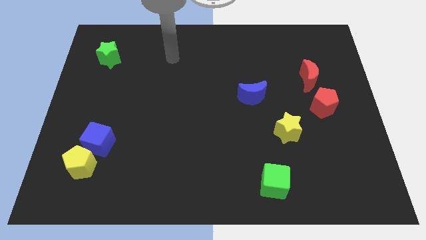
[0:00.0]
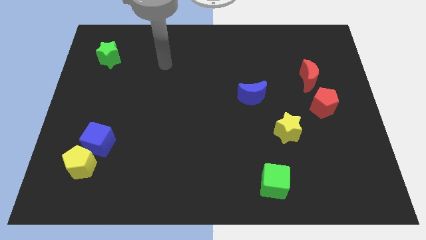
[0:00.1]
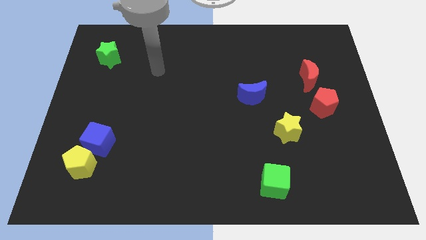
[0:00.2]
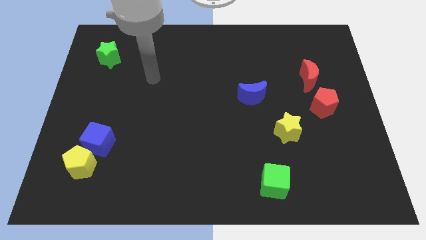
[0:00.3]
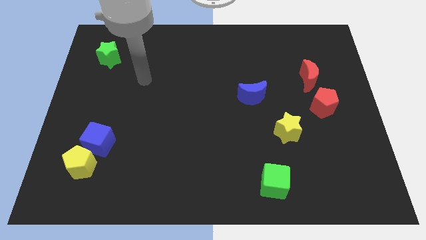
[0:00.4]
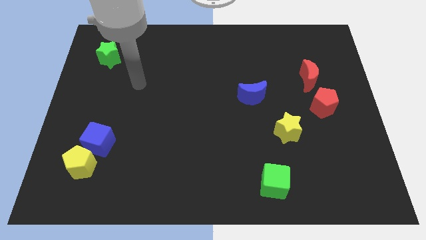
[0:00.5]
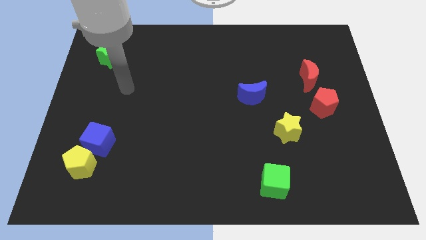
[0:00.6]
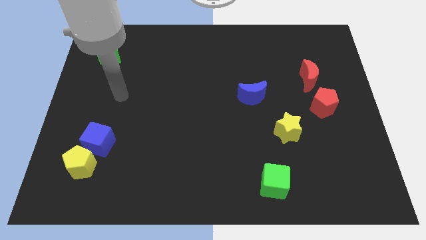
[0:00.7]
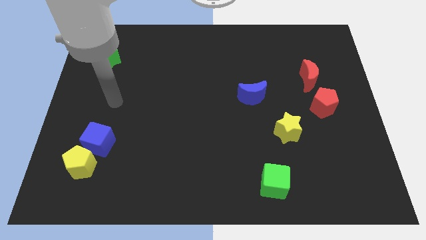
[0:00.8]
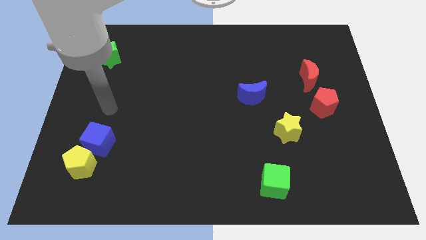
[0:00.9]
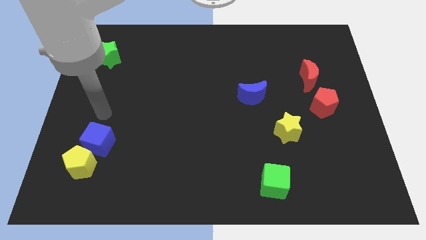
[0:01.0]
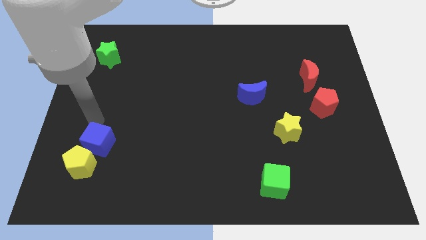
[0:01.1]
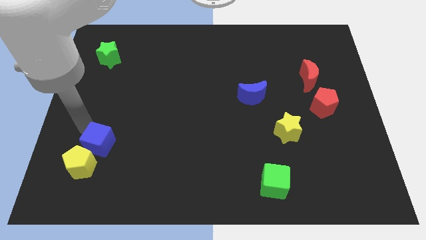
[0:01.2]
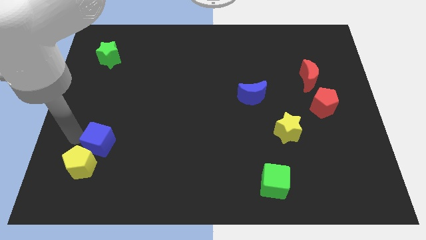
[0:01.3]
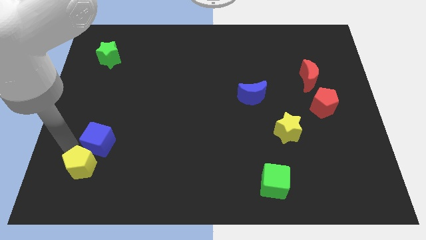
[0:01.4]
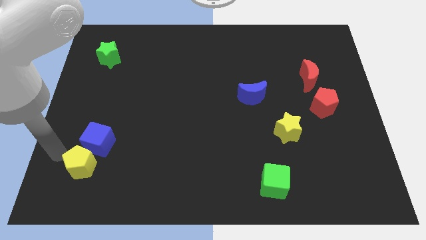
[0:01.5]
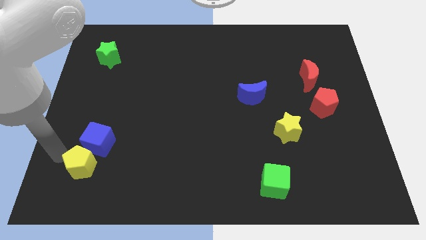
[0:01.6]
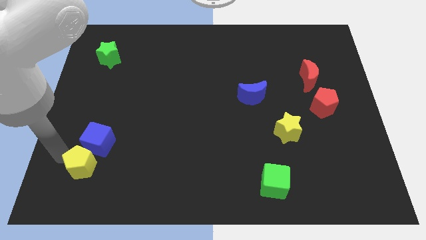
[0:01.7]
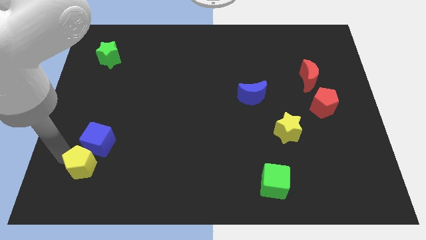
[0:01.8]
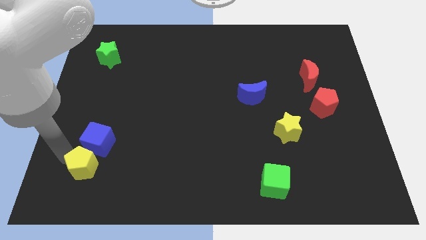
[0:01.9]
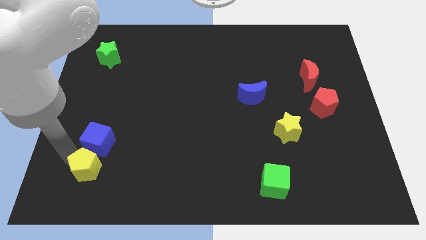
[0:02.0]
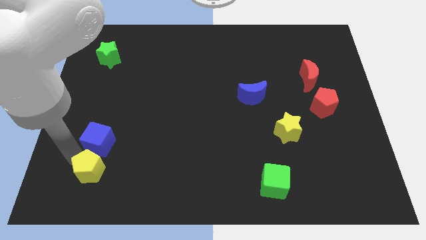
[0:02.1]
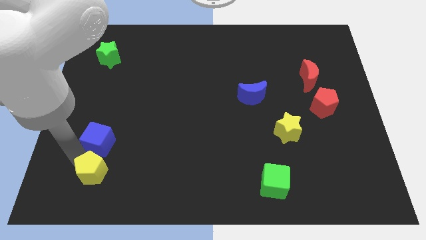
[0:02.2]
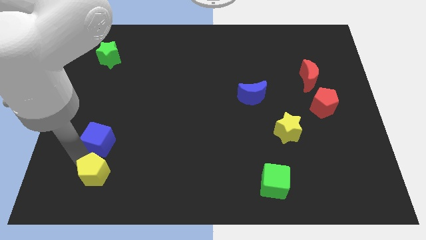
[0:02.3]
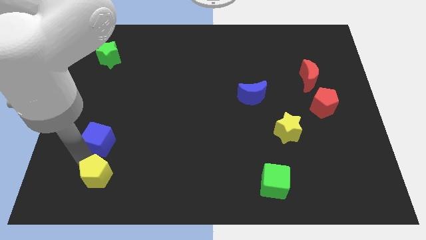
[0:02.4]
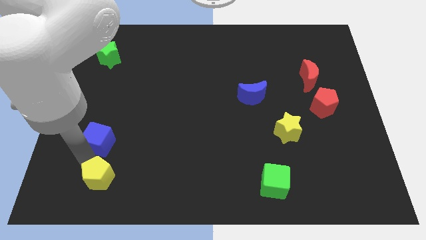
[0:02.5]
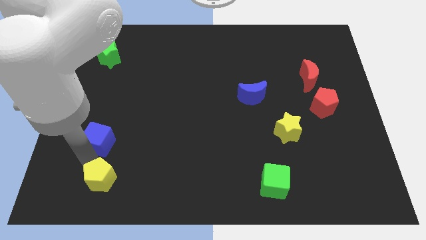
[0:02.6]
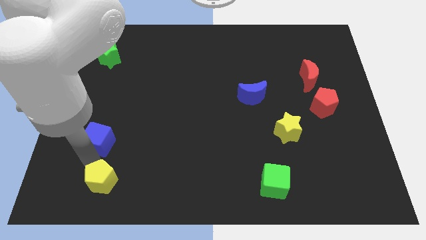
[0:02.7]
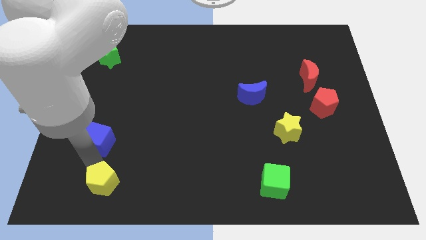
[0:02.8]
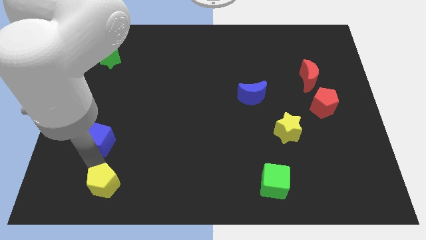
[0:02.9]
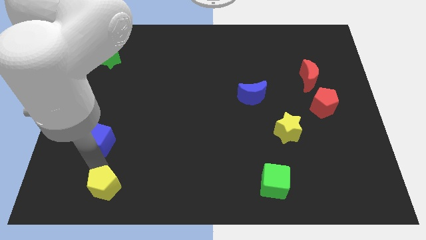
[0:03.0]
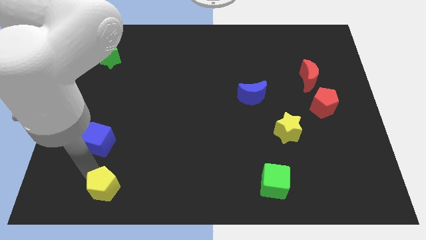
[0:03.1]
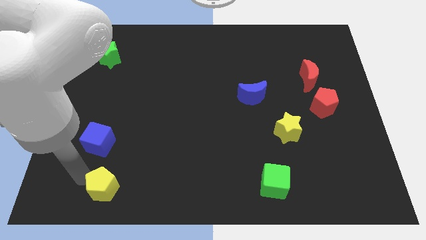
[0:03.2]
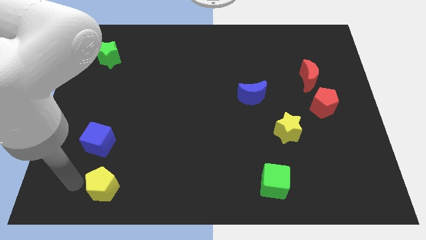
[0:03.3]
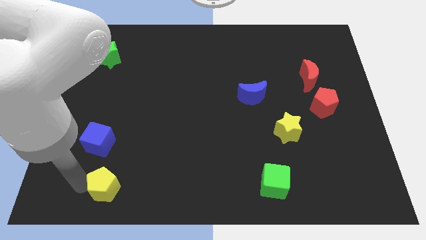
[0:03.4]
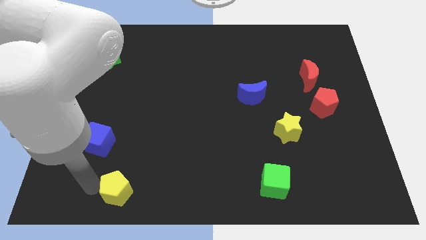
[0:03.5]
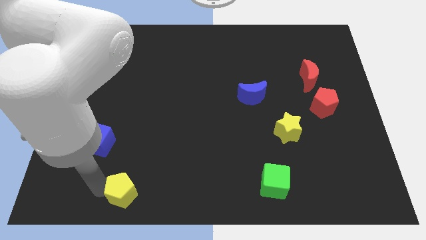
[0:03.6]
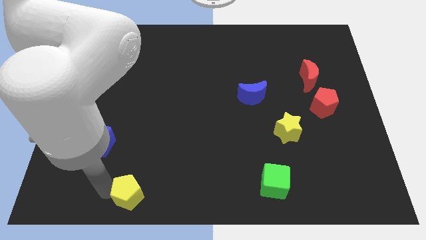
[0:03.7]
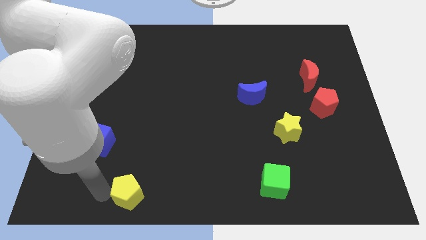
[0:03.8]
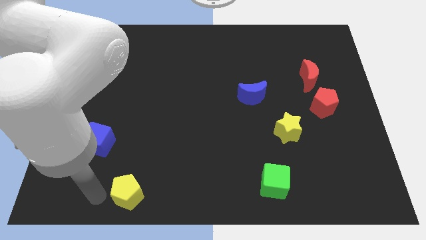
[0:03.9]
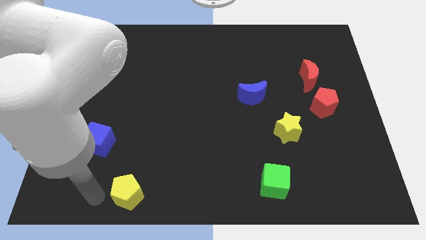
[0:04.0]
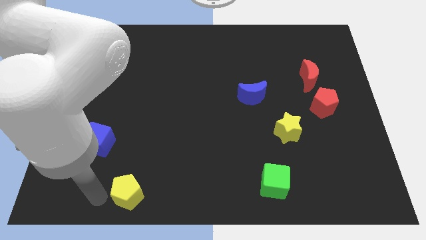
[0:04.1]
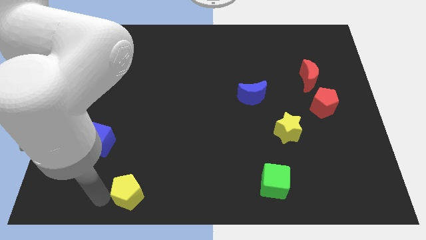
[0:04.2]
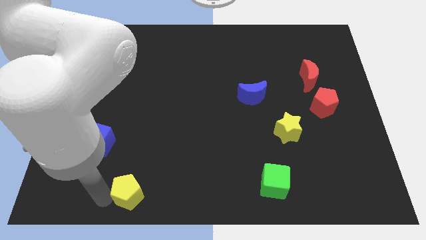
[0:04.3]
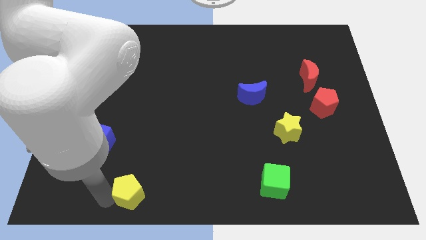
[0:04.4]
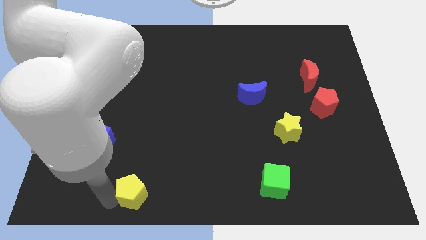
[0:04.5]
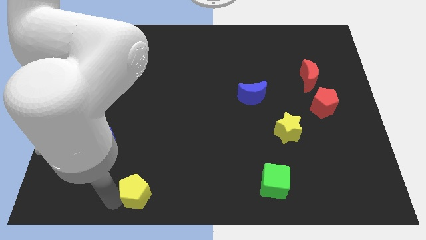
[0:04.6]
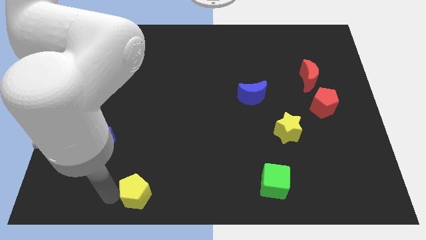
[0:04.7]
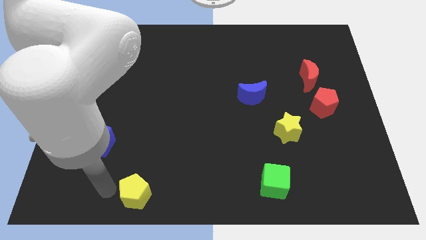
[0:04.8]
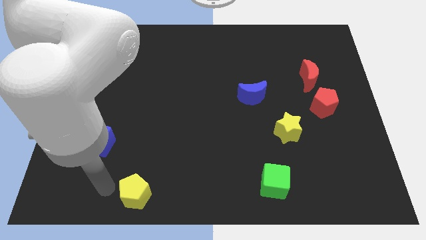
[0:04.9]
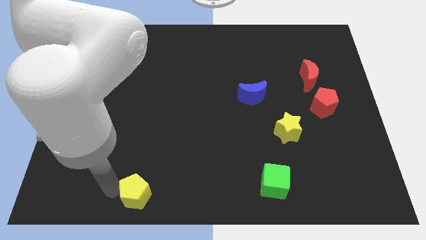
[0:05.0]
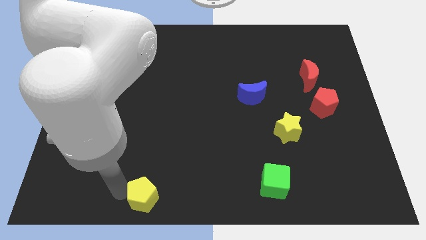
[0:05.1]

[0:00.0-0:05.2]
put the yellow pentagon to the bottom

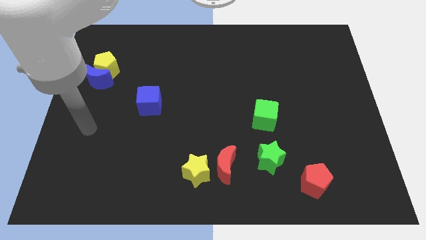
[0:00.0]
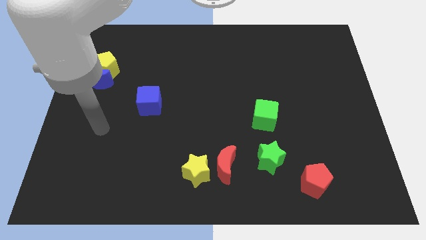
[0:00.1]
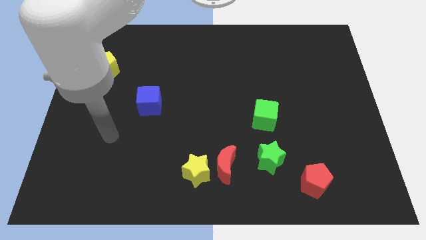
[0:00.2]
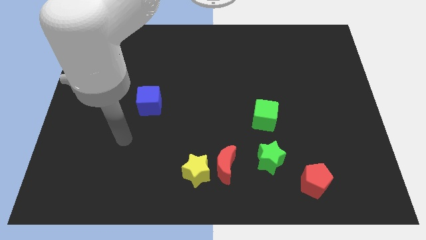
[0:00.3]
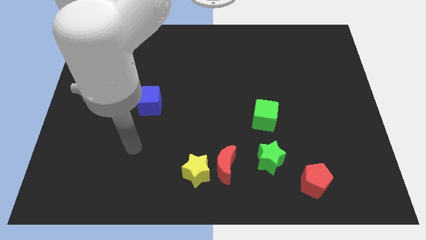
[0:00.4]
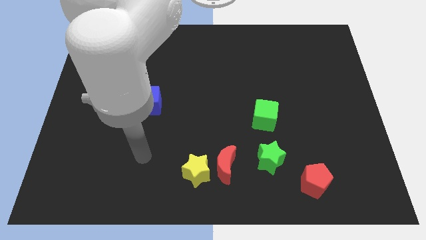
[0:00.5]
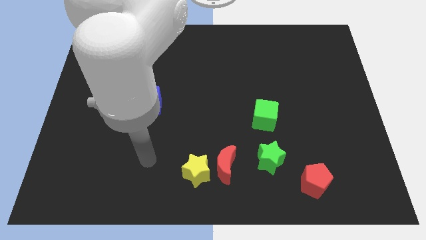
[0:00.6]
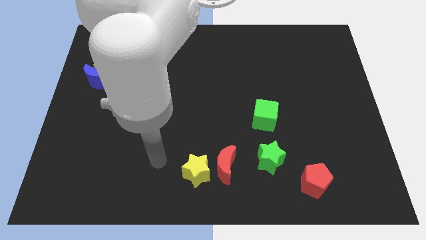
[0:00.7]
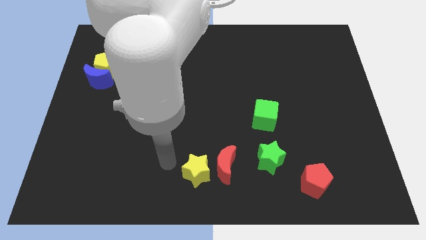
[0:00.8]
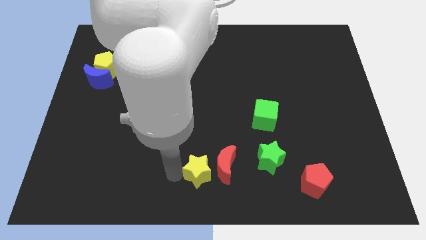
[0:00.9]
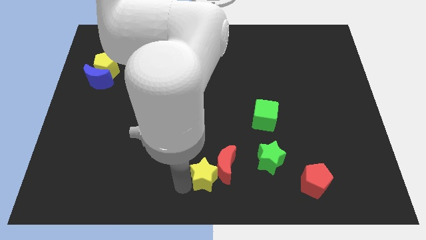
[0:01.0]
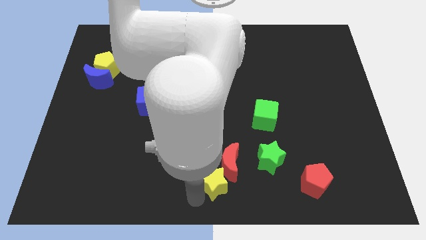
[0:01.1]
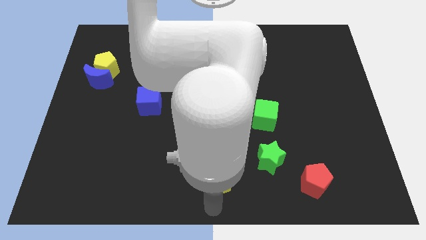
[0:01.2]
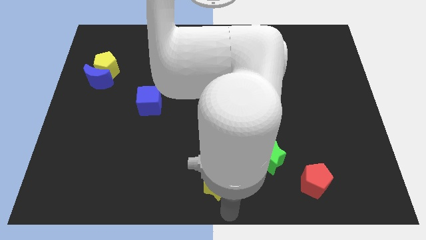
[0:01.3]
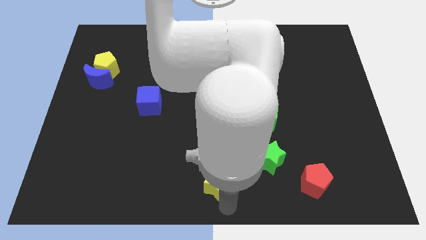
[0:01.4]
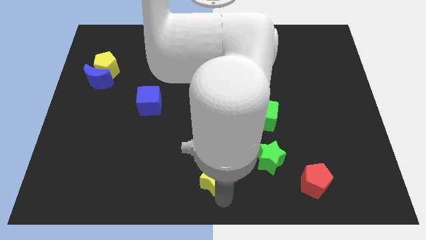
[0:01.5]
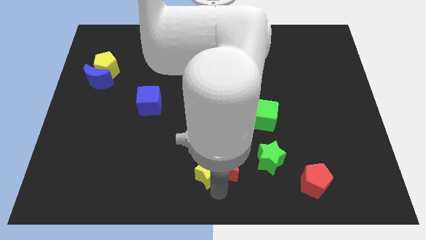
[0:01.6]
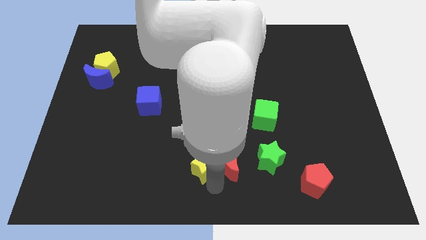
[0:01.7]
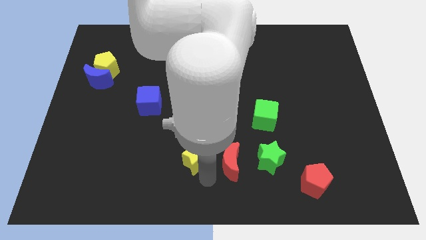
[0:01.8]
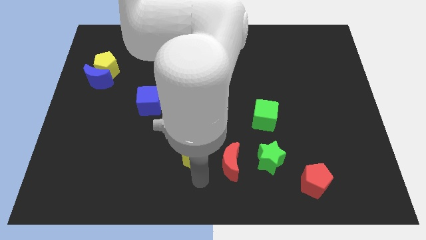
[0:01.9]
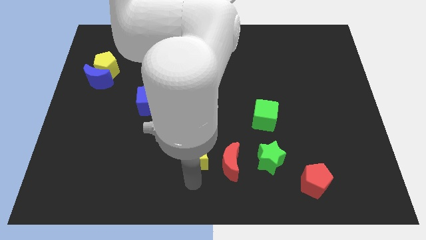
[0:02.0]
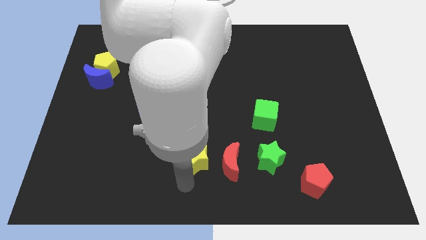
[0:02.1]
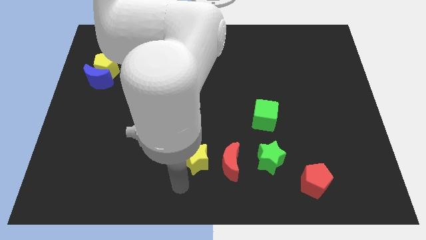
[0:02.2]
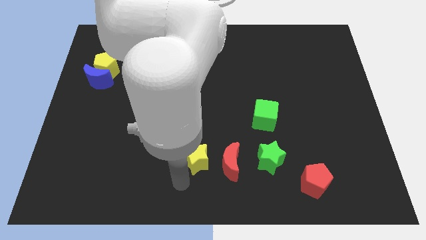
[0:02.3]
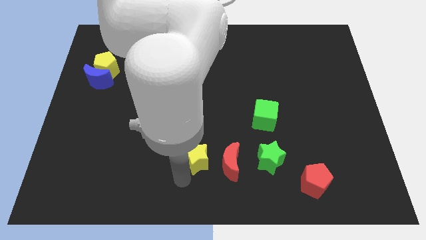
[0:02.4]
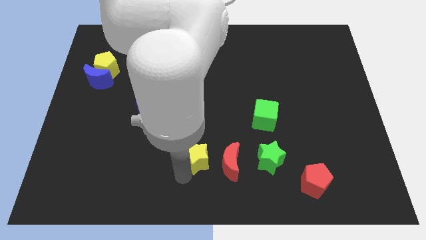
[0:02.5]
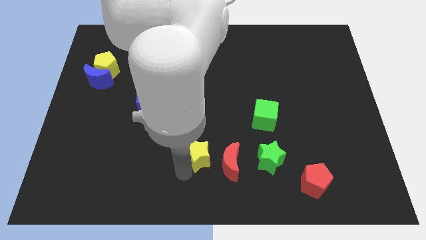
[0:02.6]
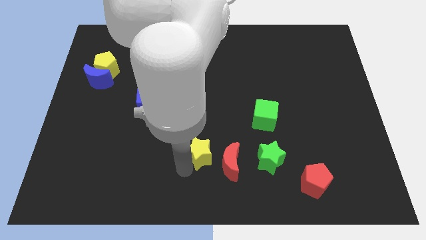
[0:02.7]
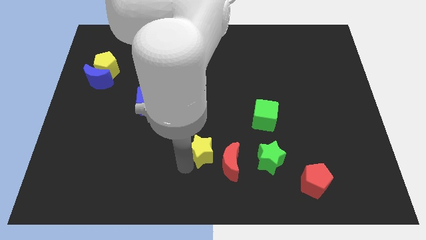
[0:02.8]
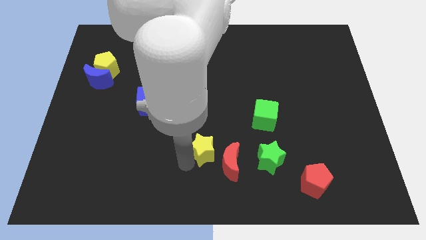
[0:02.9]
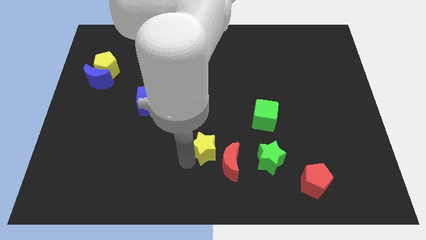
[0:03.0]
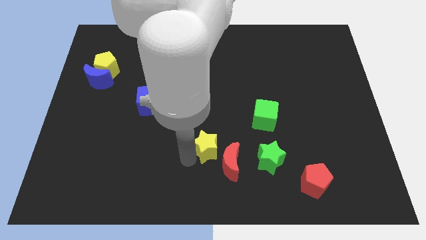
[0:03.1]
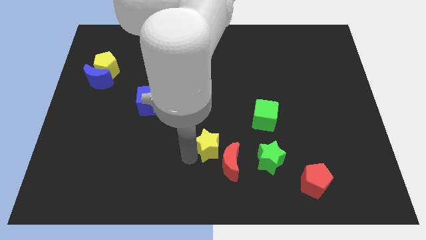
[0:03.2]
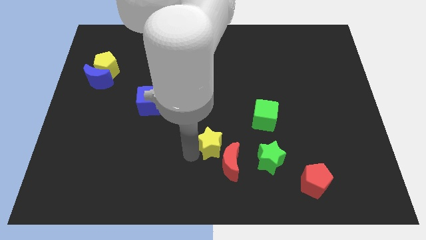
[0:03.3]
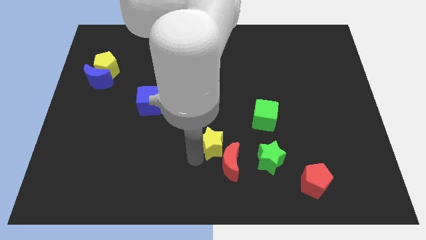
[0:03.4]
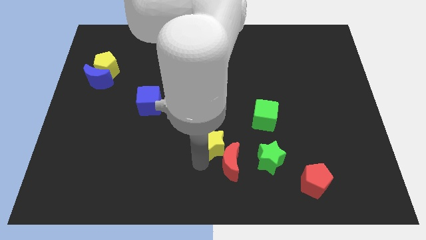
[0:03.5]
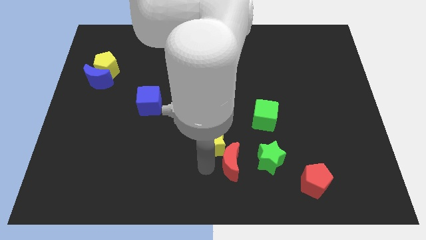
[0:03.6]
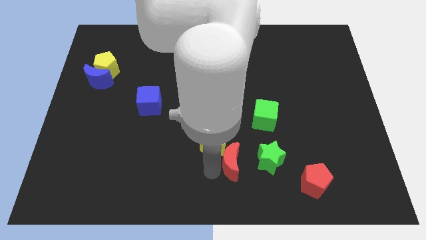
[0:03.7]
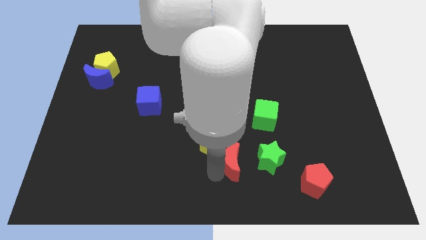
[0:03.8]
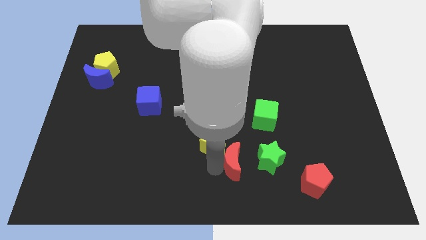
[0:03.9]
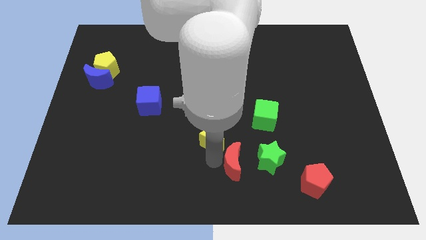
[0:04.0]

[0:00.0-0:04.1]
put the yellow star to the center
